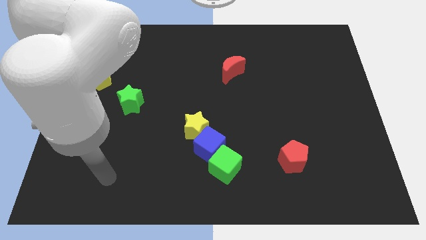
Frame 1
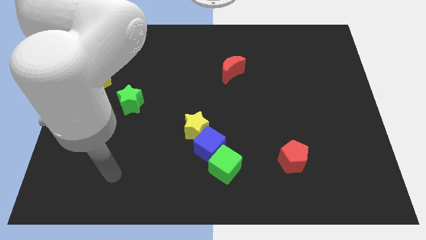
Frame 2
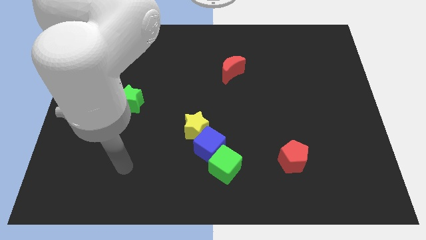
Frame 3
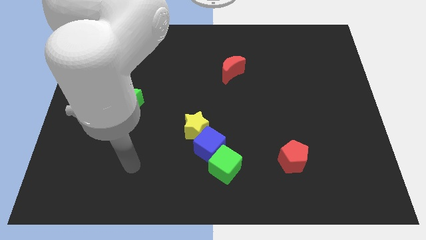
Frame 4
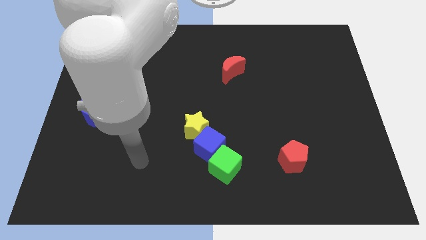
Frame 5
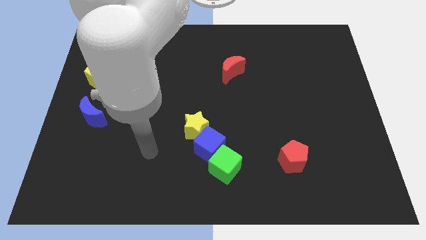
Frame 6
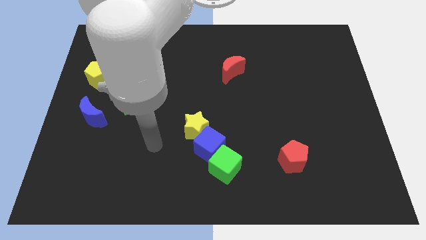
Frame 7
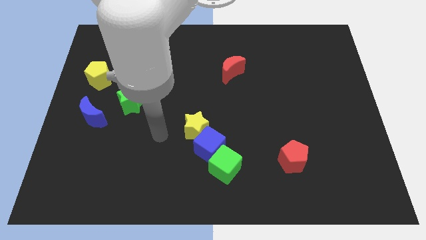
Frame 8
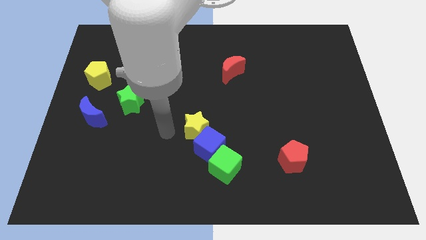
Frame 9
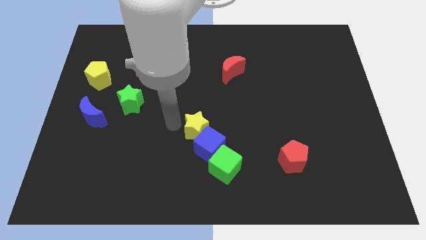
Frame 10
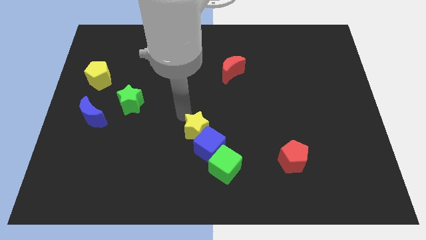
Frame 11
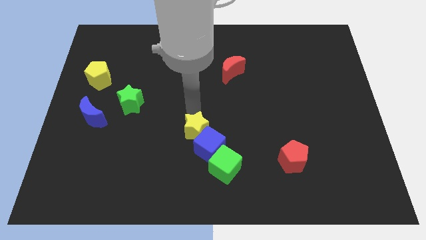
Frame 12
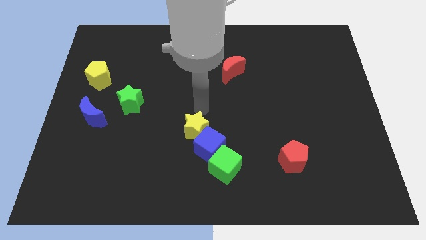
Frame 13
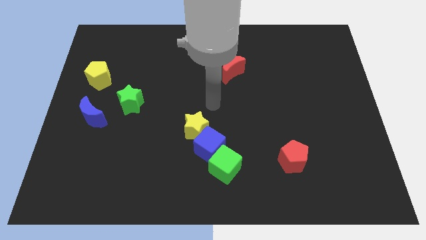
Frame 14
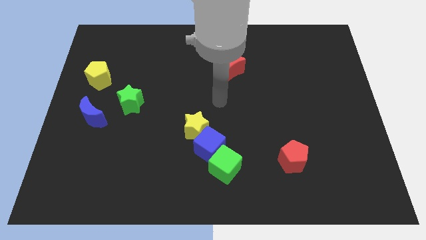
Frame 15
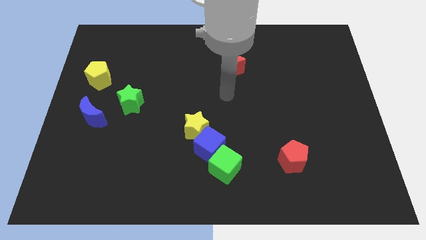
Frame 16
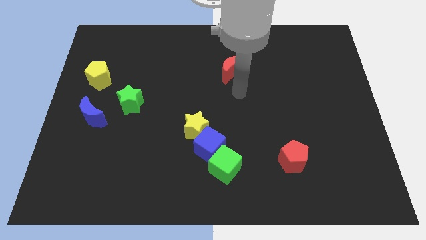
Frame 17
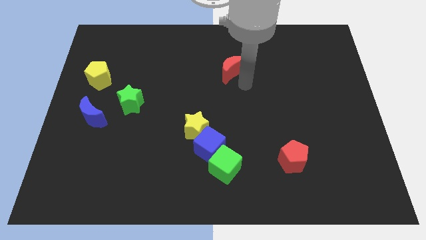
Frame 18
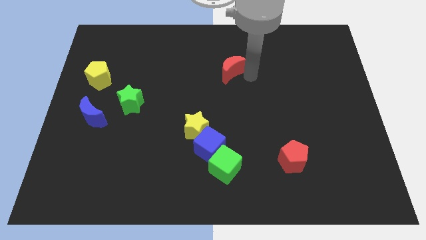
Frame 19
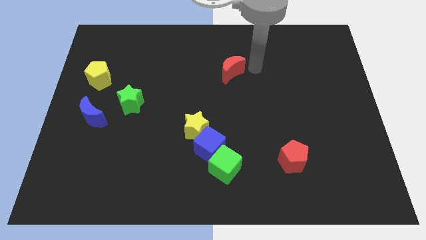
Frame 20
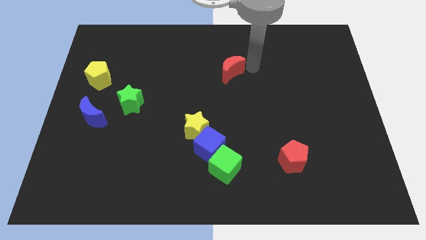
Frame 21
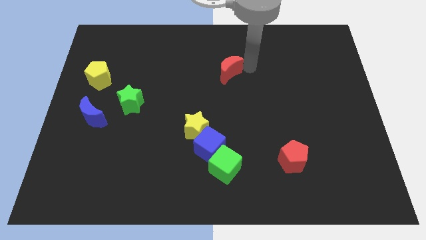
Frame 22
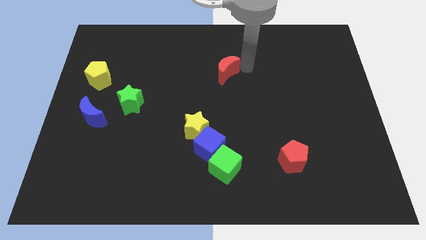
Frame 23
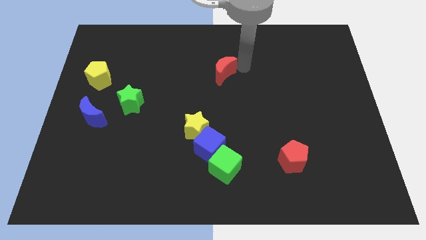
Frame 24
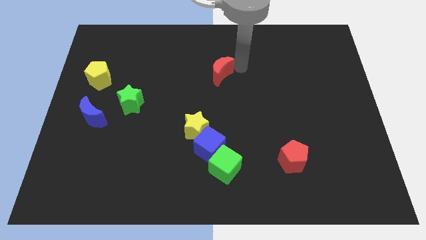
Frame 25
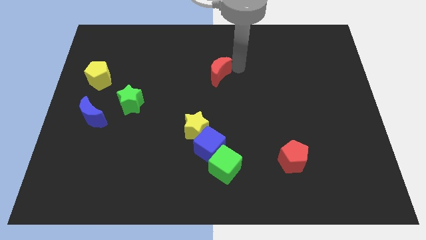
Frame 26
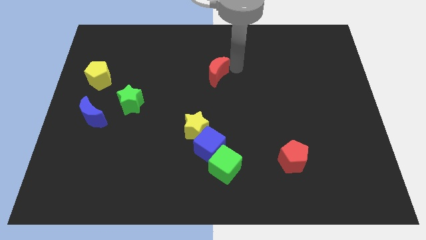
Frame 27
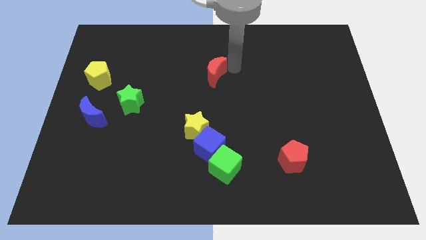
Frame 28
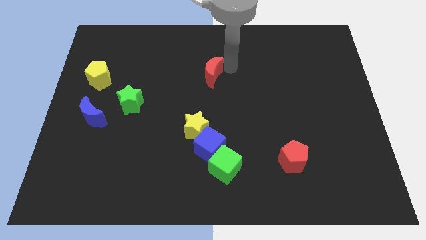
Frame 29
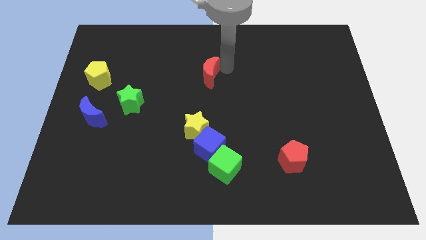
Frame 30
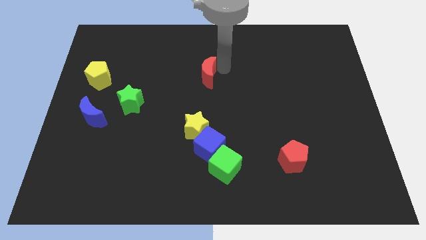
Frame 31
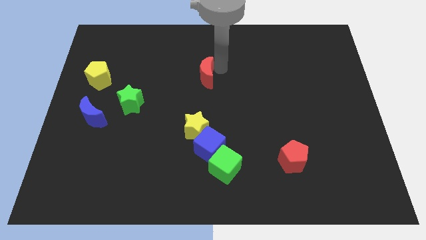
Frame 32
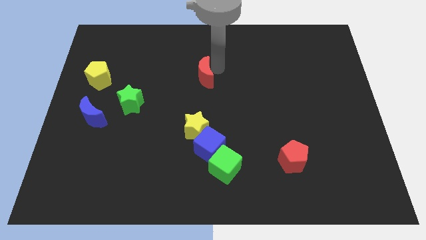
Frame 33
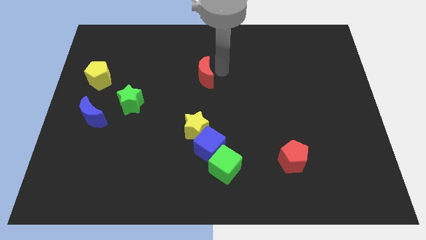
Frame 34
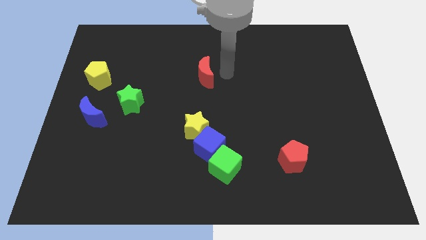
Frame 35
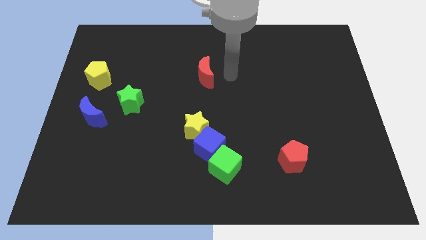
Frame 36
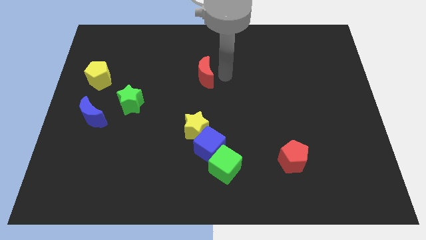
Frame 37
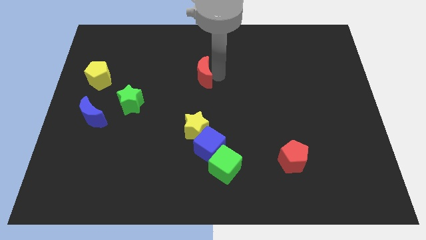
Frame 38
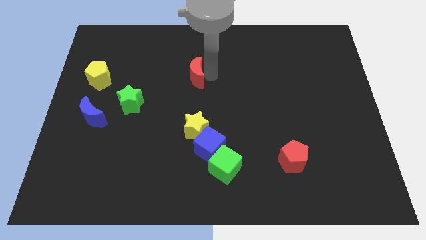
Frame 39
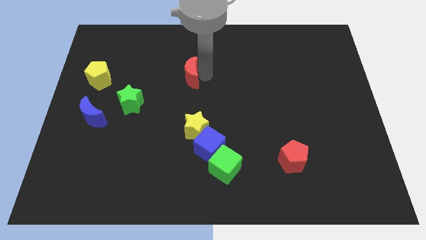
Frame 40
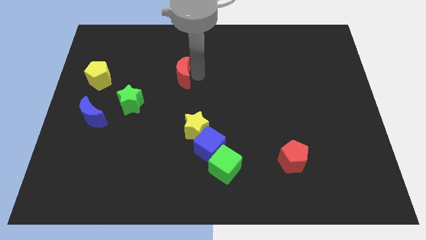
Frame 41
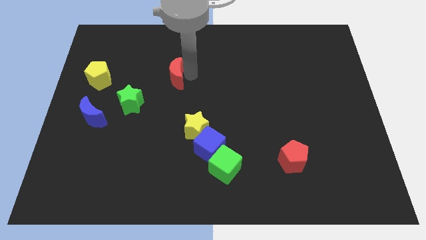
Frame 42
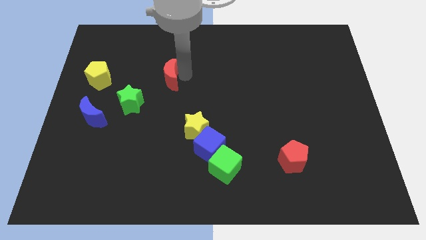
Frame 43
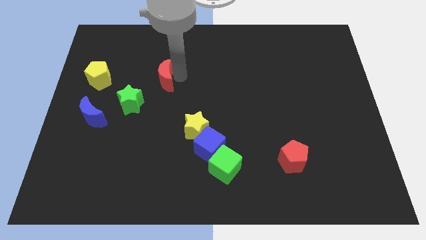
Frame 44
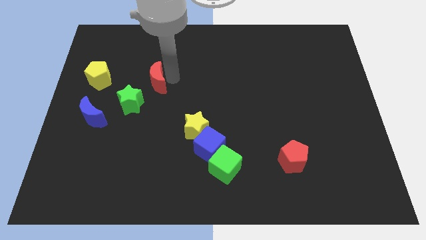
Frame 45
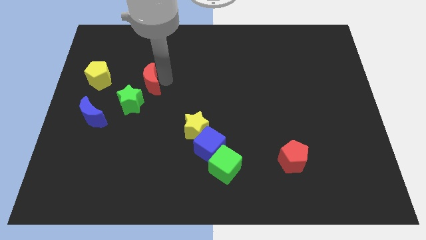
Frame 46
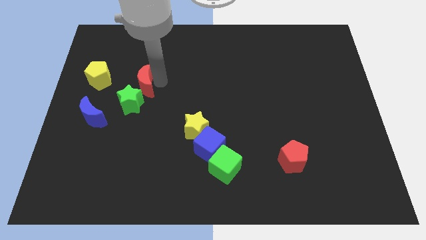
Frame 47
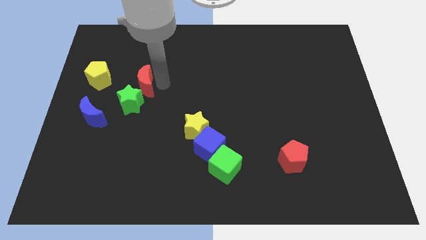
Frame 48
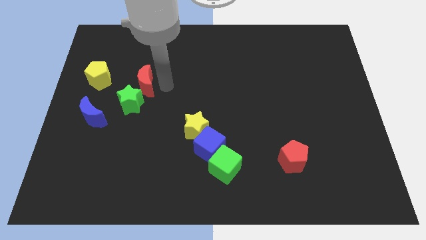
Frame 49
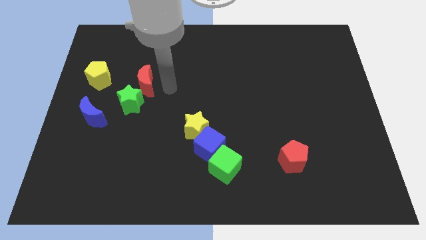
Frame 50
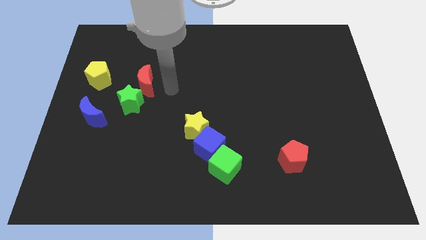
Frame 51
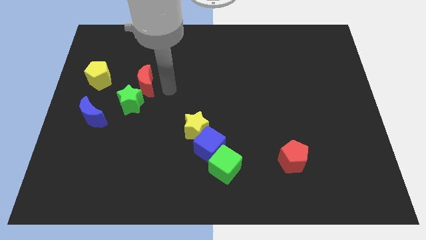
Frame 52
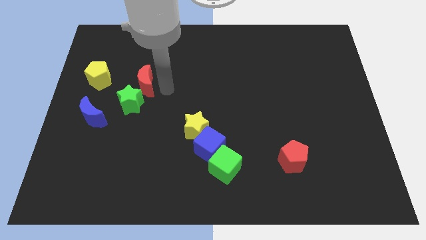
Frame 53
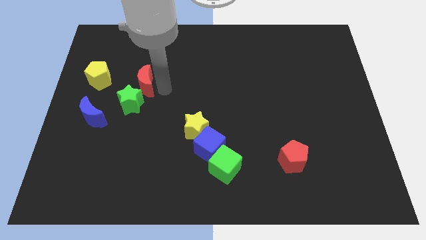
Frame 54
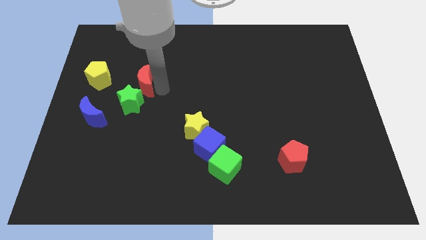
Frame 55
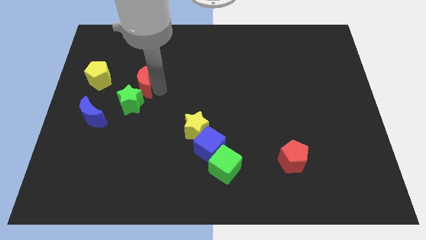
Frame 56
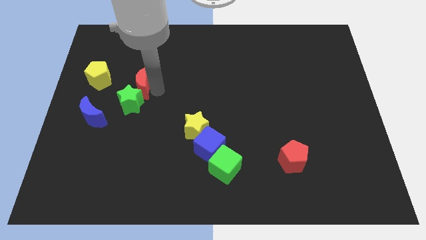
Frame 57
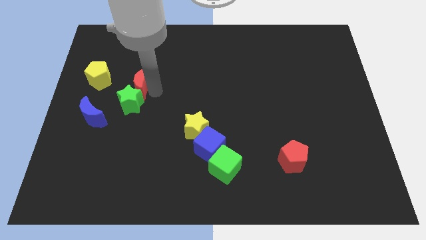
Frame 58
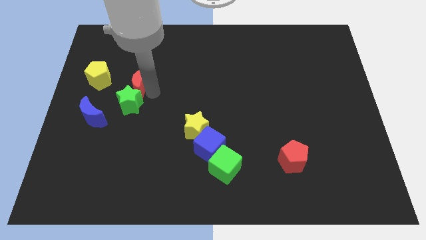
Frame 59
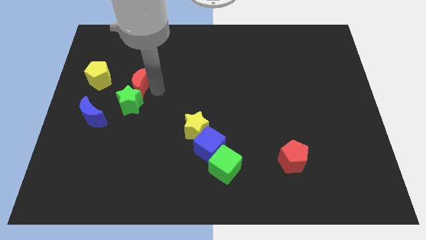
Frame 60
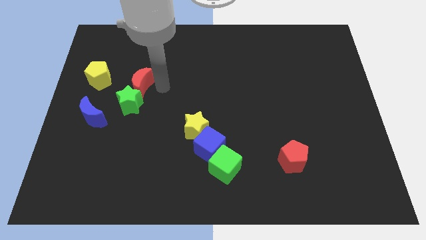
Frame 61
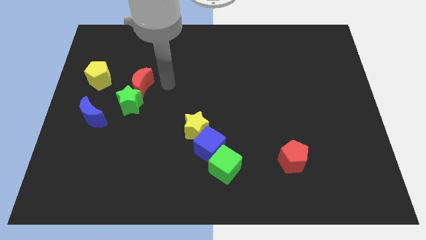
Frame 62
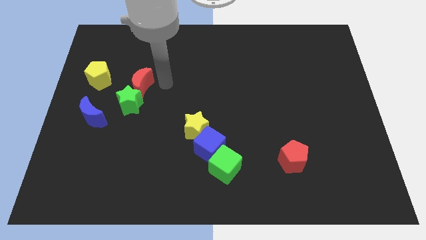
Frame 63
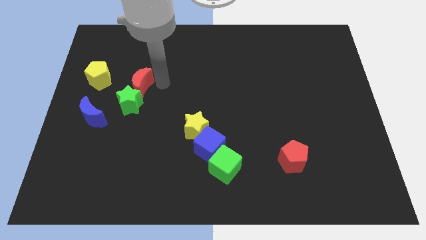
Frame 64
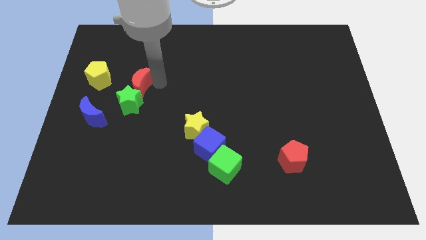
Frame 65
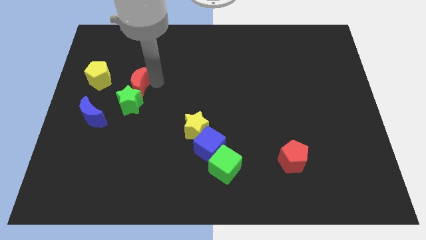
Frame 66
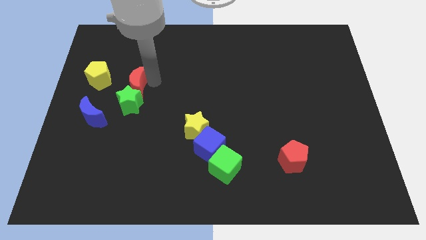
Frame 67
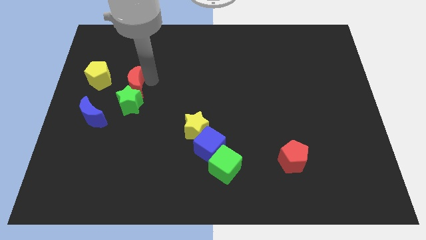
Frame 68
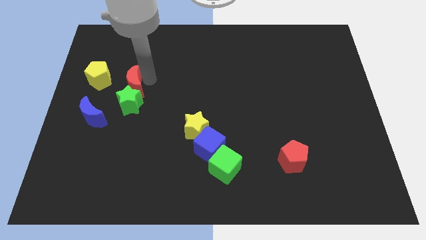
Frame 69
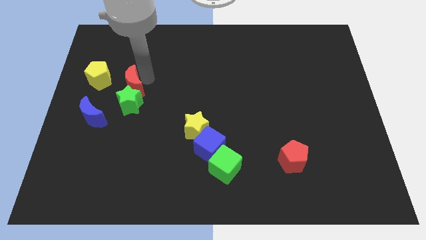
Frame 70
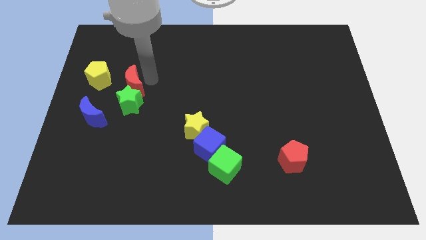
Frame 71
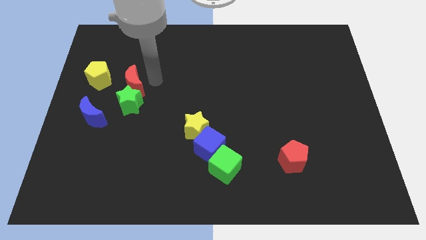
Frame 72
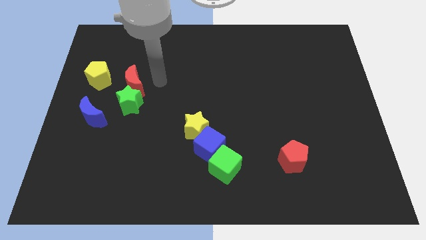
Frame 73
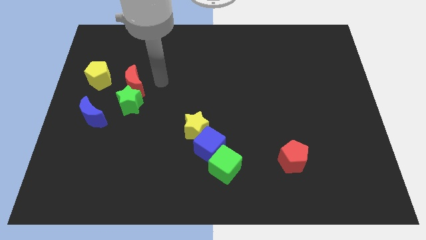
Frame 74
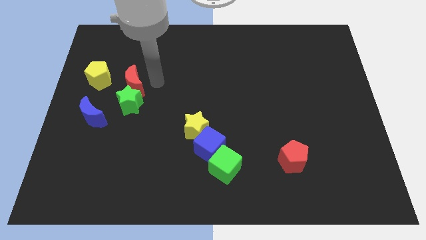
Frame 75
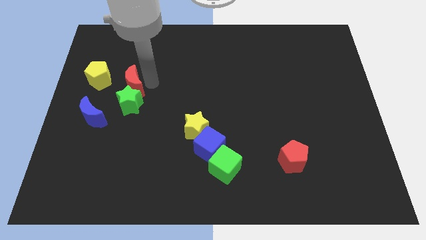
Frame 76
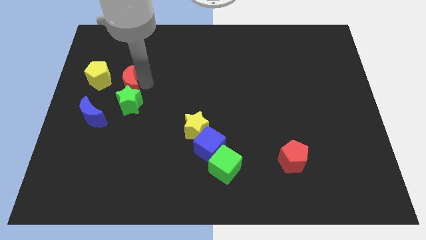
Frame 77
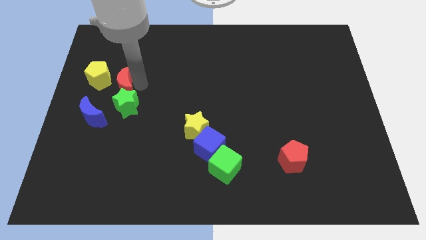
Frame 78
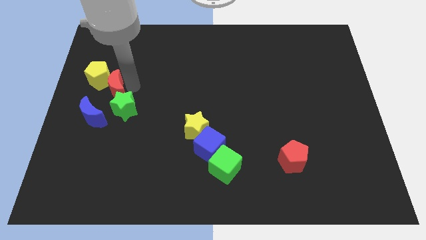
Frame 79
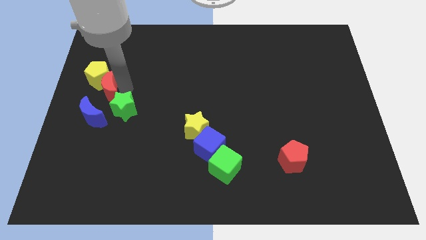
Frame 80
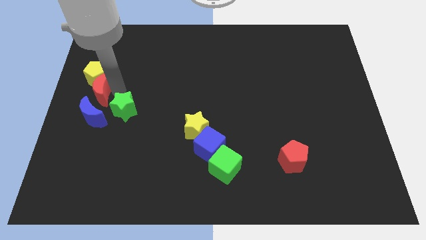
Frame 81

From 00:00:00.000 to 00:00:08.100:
slide the red moon to the center left
